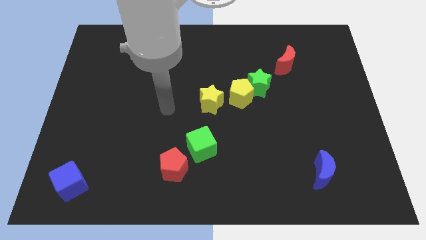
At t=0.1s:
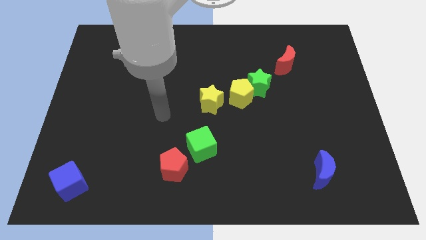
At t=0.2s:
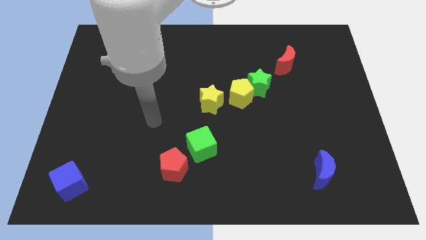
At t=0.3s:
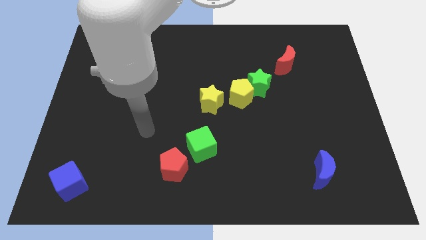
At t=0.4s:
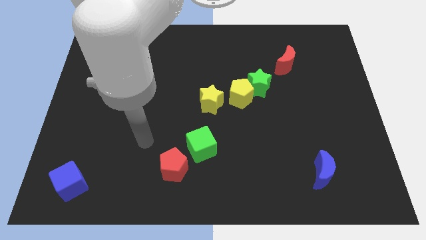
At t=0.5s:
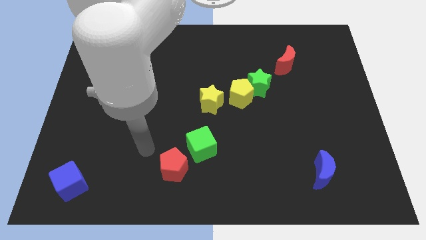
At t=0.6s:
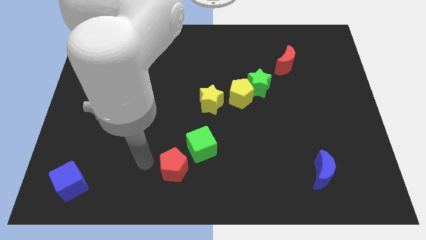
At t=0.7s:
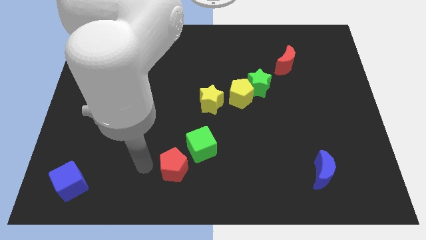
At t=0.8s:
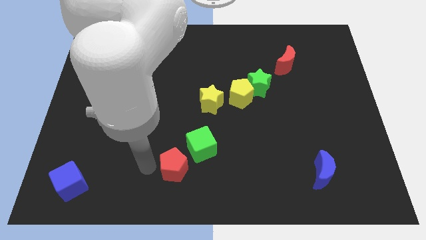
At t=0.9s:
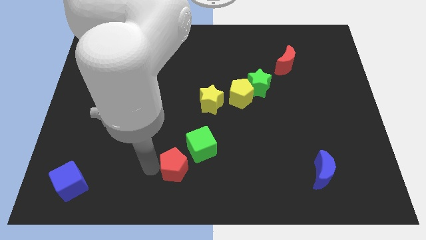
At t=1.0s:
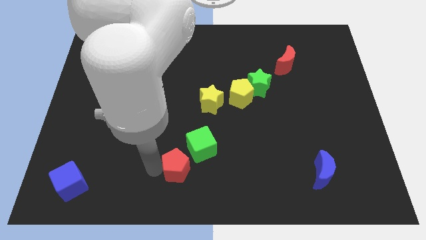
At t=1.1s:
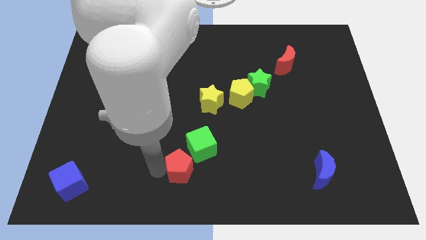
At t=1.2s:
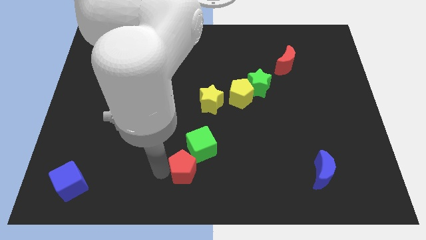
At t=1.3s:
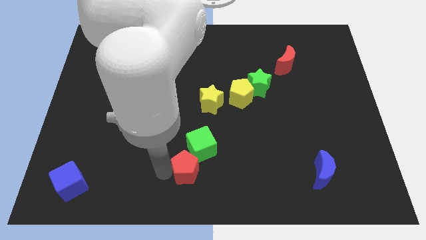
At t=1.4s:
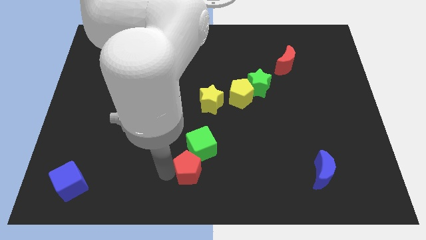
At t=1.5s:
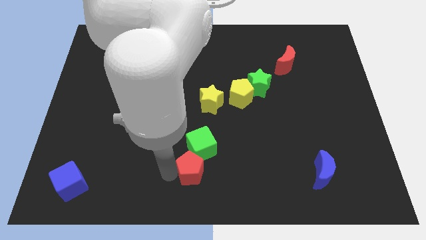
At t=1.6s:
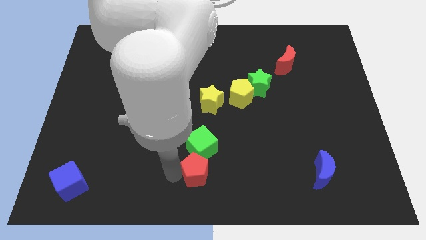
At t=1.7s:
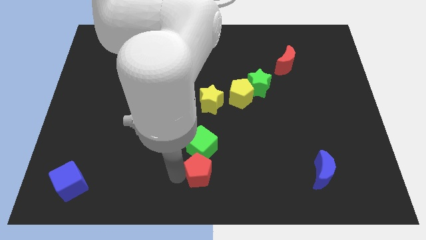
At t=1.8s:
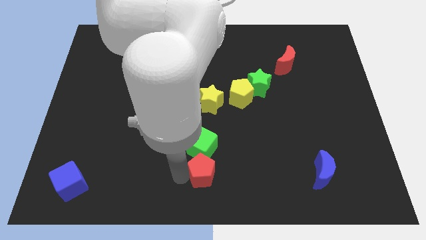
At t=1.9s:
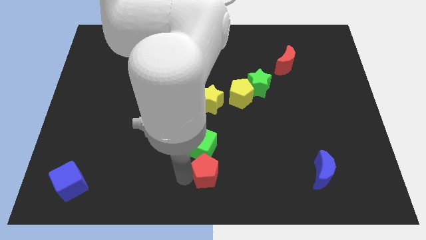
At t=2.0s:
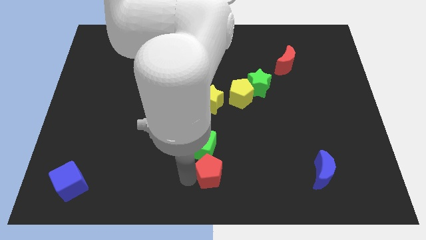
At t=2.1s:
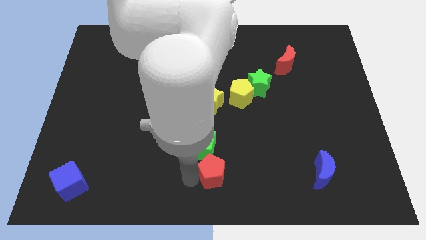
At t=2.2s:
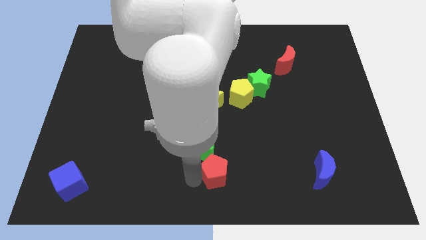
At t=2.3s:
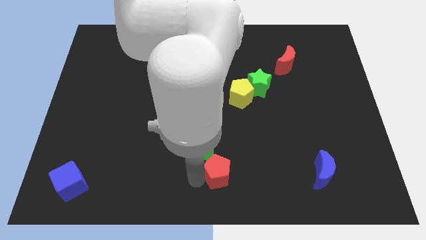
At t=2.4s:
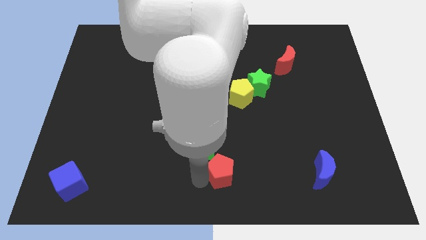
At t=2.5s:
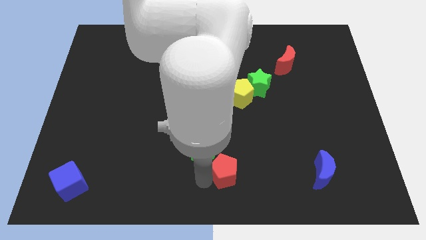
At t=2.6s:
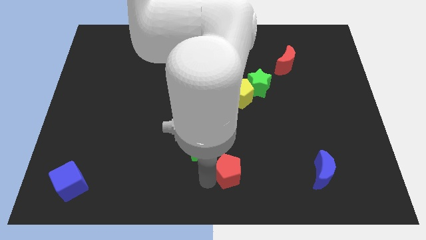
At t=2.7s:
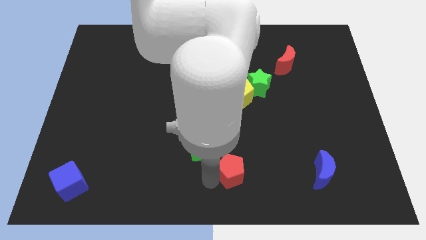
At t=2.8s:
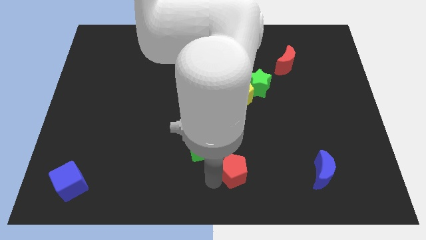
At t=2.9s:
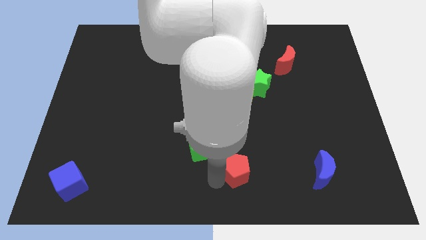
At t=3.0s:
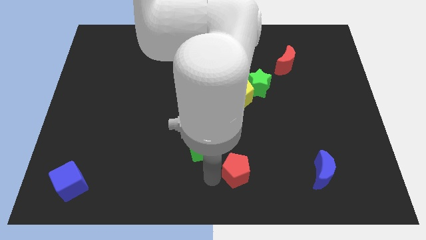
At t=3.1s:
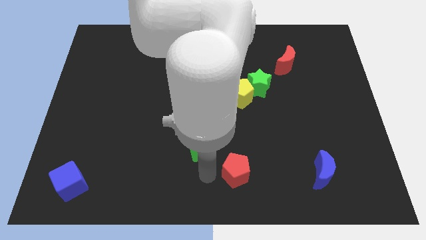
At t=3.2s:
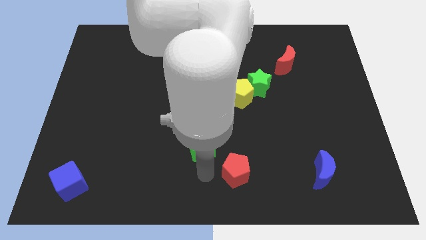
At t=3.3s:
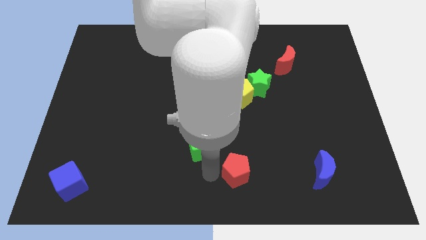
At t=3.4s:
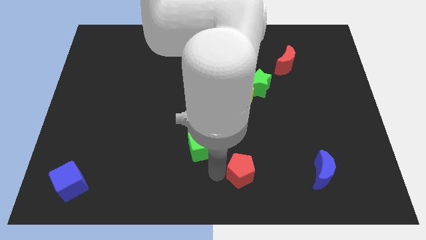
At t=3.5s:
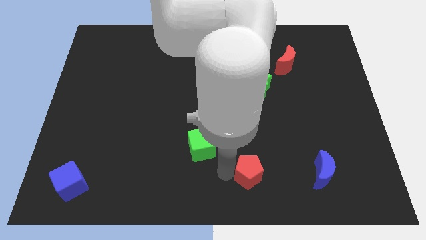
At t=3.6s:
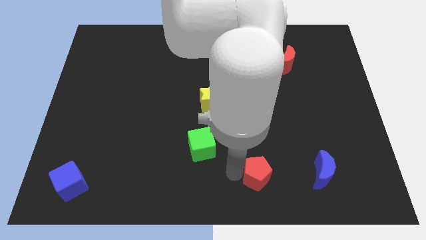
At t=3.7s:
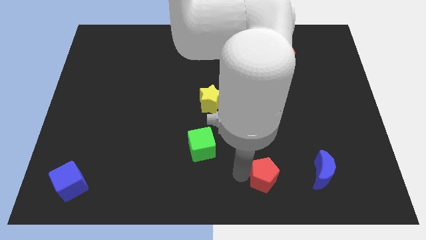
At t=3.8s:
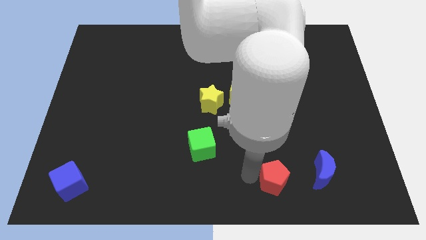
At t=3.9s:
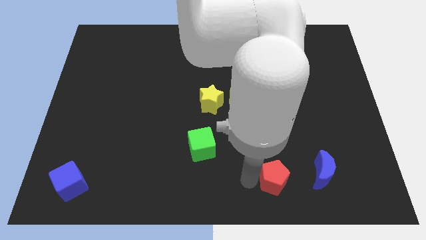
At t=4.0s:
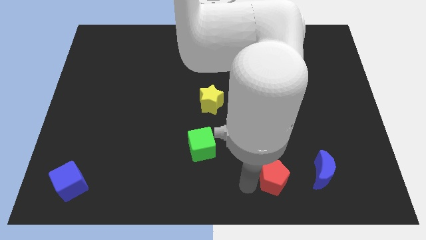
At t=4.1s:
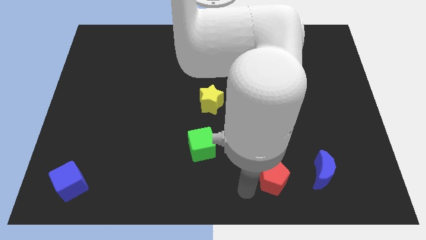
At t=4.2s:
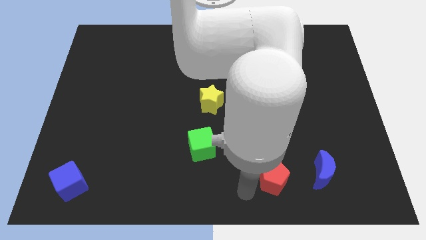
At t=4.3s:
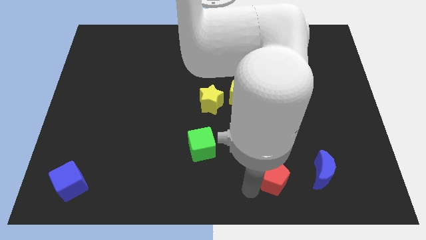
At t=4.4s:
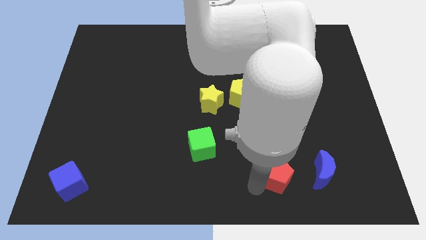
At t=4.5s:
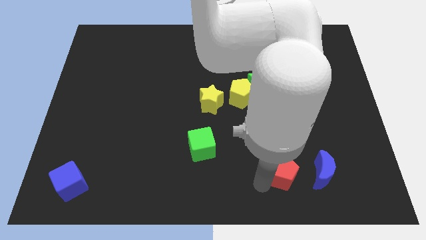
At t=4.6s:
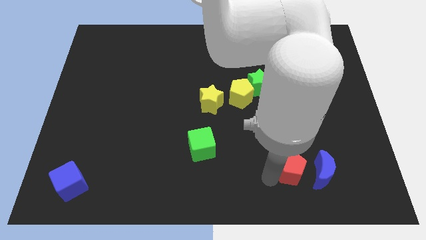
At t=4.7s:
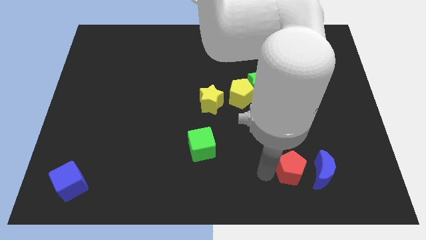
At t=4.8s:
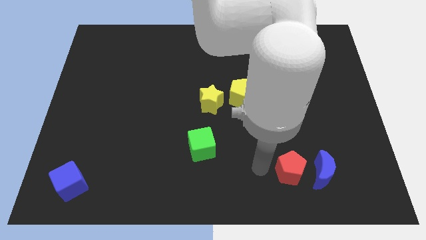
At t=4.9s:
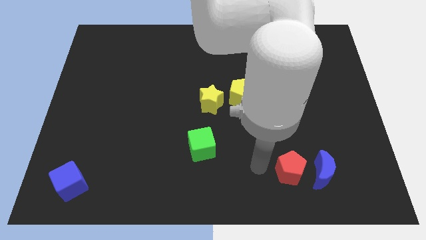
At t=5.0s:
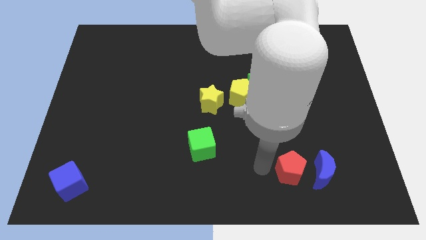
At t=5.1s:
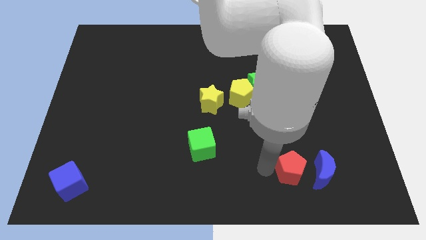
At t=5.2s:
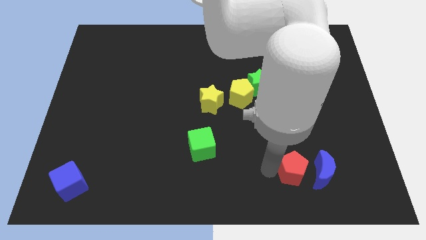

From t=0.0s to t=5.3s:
slide the red pentagon next to the blue moon

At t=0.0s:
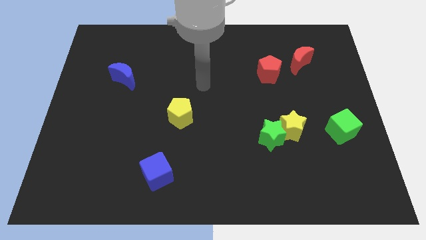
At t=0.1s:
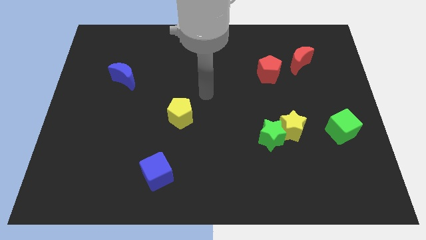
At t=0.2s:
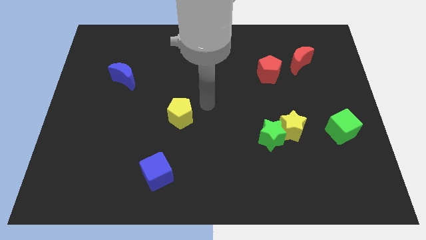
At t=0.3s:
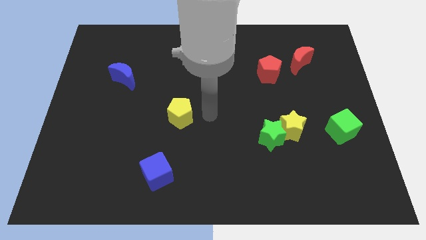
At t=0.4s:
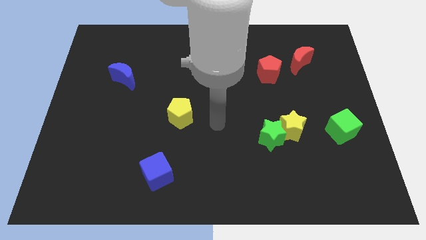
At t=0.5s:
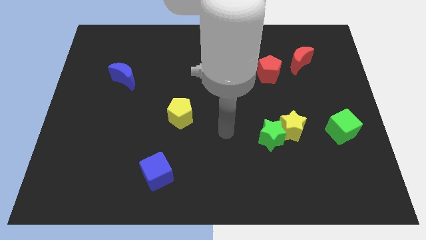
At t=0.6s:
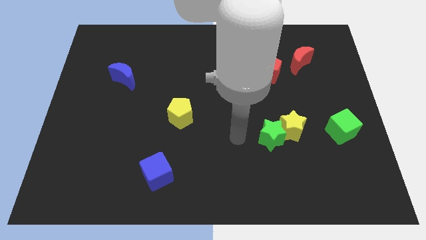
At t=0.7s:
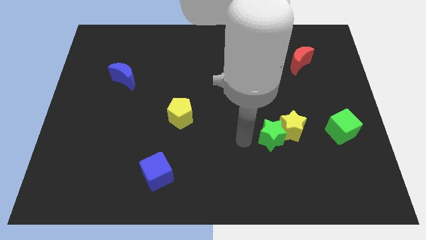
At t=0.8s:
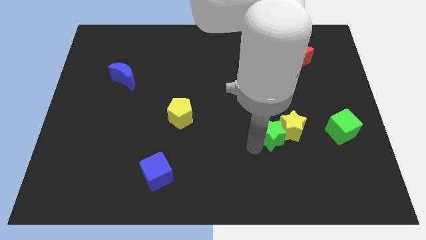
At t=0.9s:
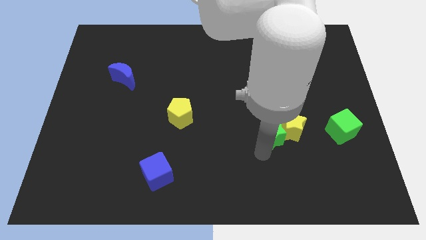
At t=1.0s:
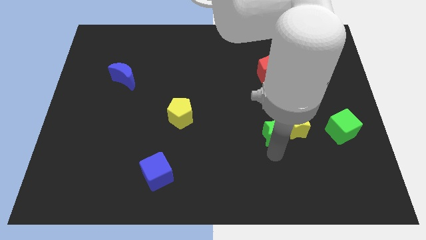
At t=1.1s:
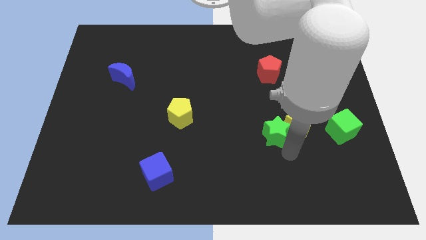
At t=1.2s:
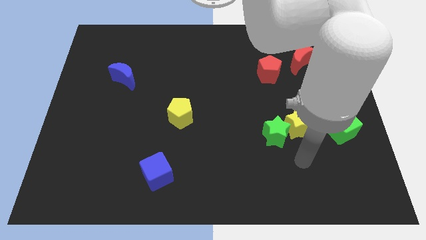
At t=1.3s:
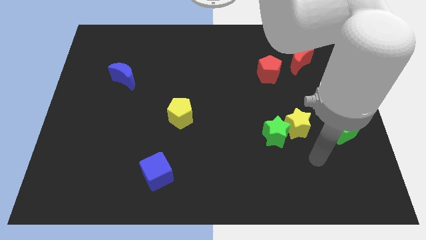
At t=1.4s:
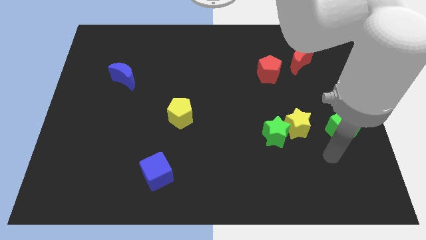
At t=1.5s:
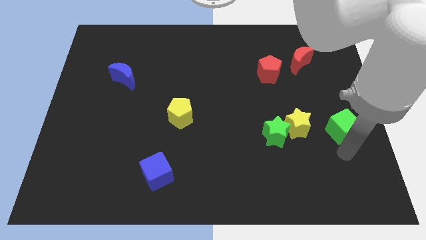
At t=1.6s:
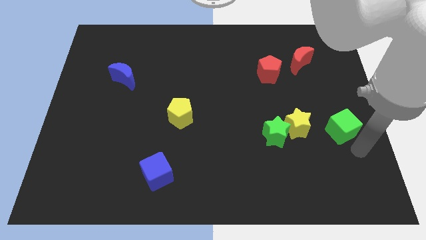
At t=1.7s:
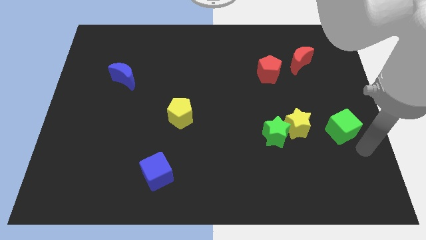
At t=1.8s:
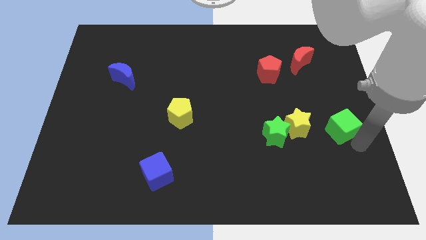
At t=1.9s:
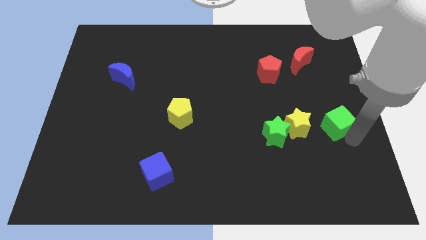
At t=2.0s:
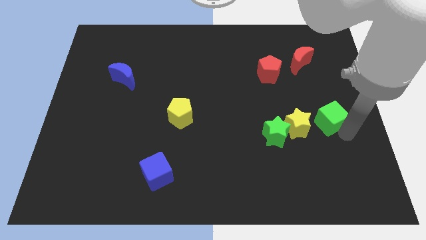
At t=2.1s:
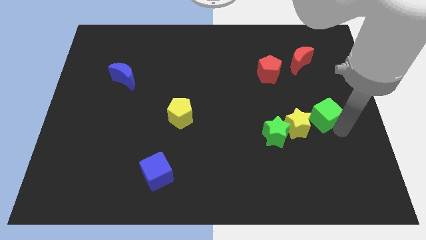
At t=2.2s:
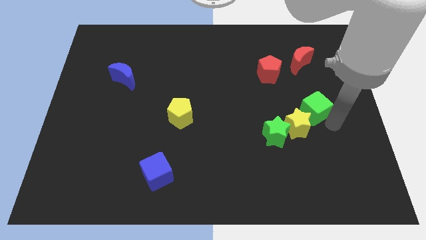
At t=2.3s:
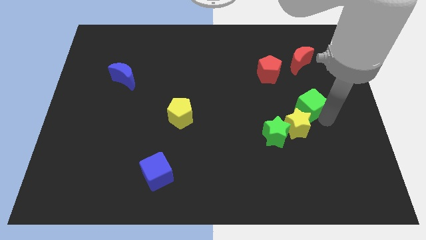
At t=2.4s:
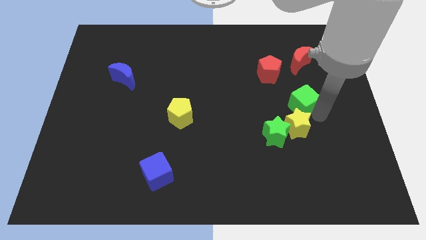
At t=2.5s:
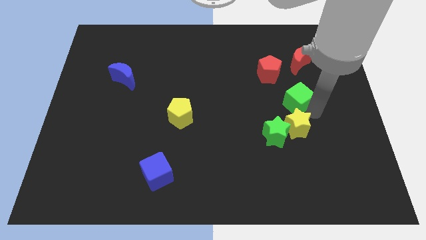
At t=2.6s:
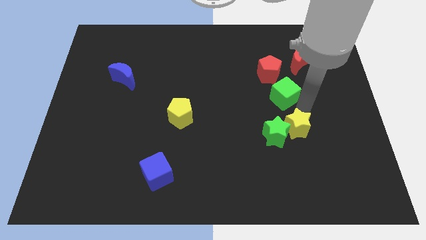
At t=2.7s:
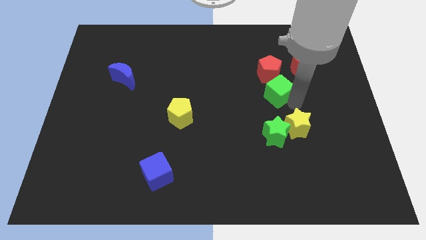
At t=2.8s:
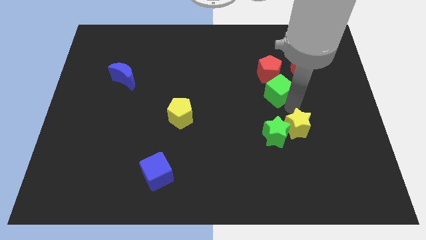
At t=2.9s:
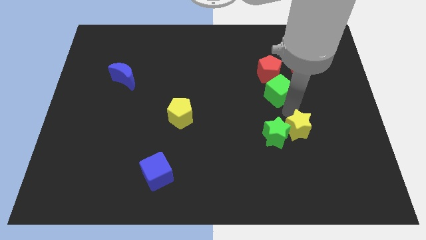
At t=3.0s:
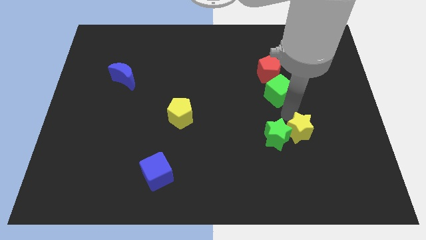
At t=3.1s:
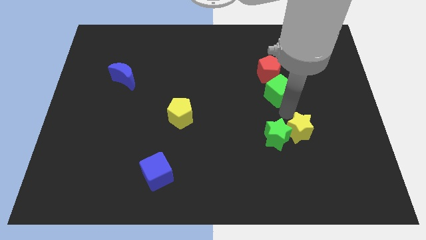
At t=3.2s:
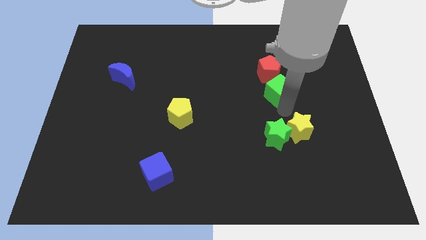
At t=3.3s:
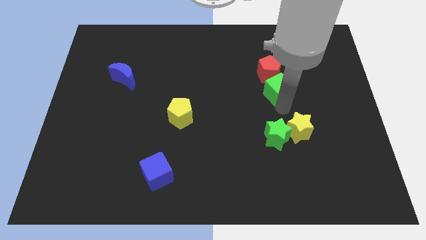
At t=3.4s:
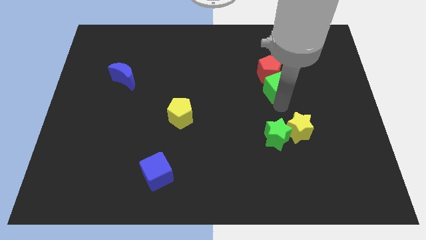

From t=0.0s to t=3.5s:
put the green cube close to the red pentagon
